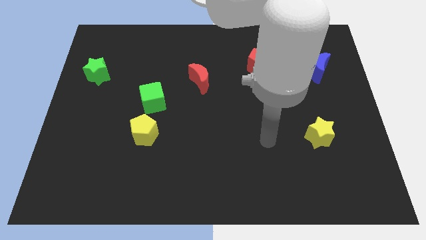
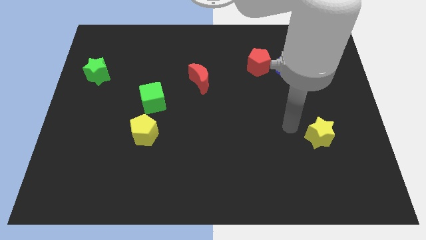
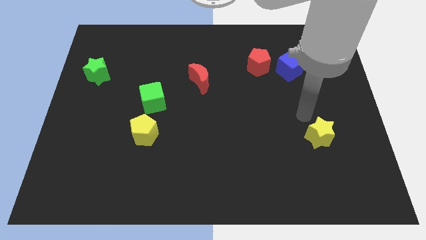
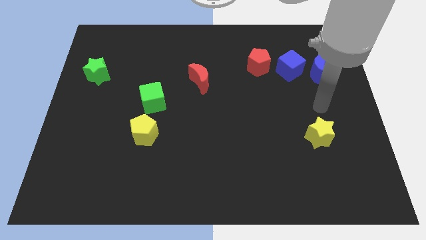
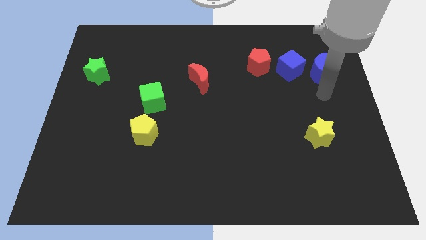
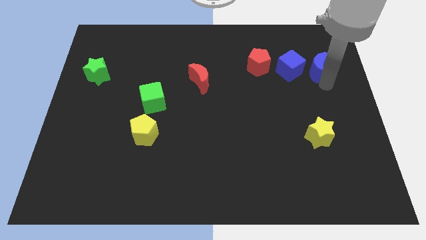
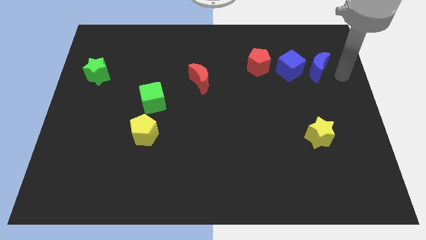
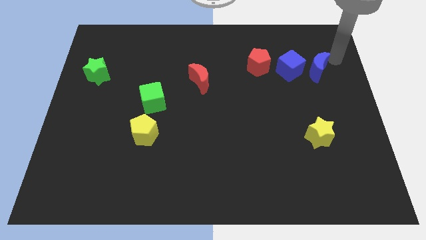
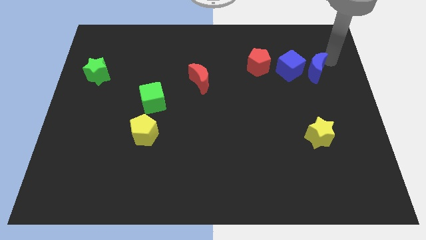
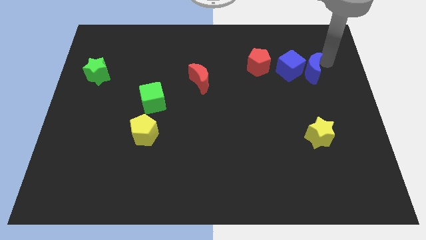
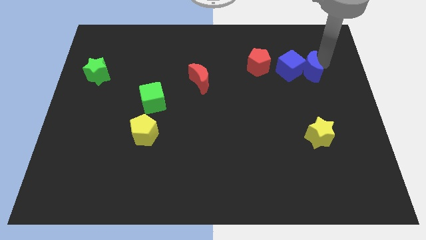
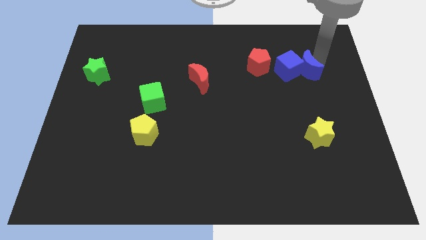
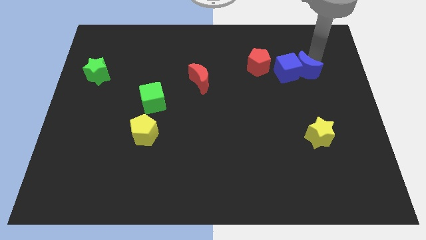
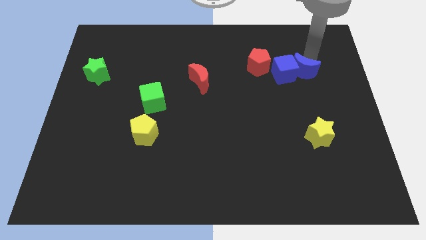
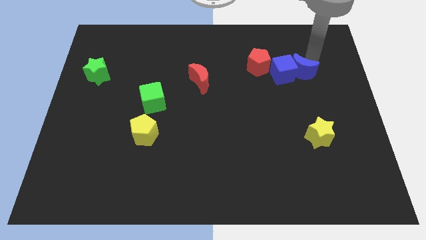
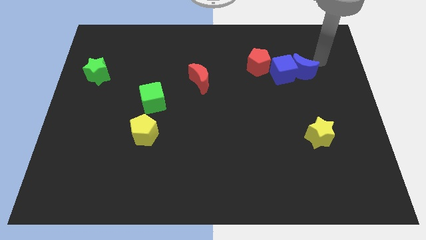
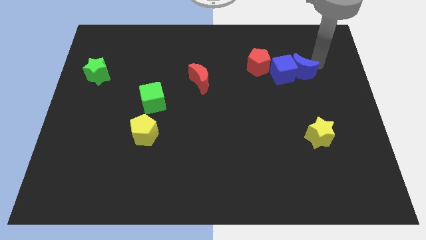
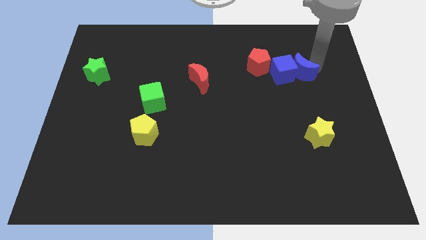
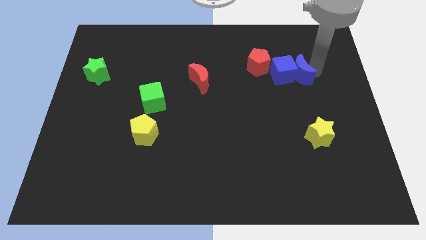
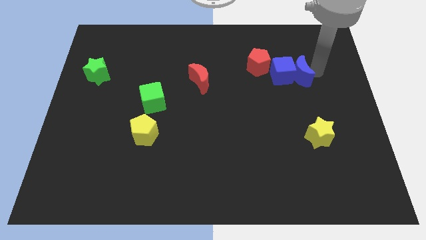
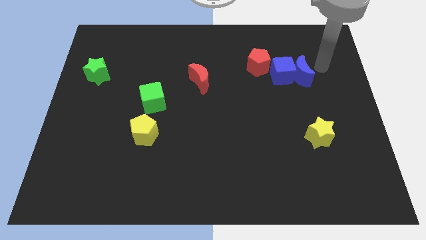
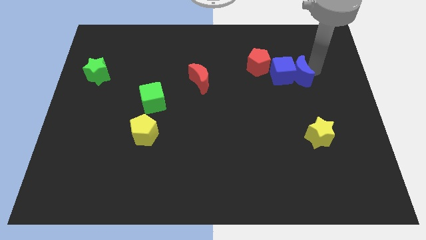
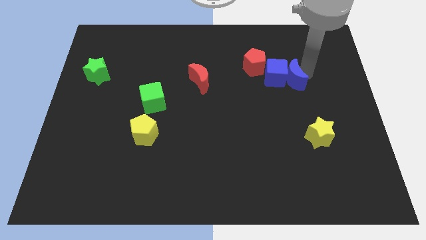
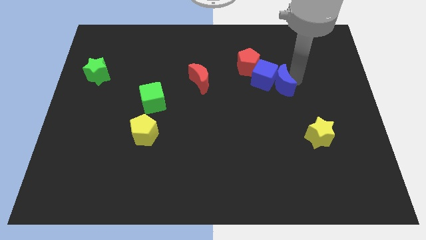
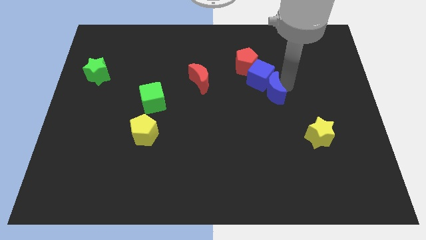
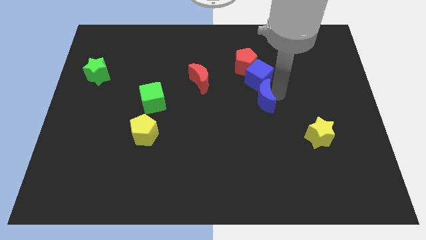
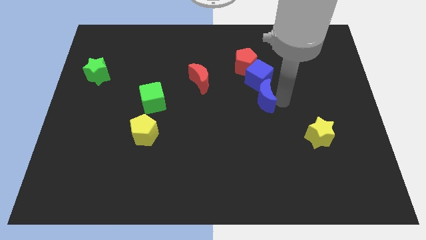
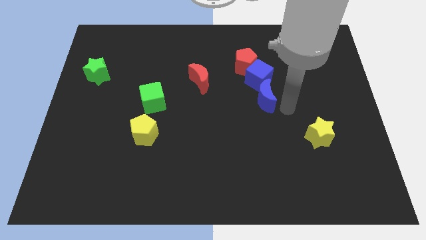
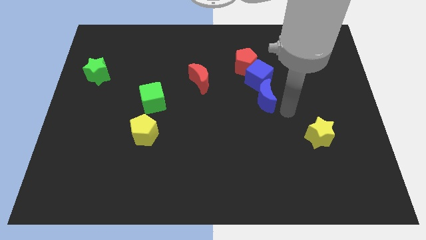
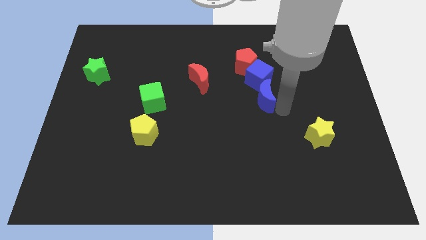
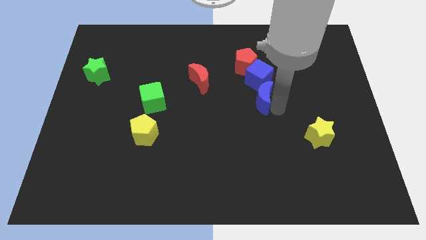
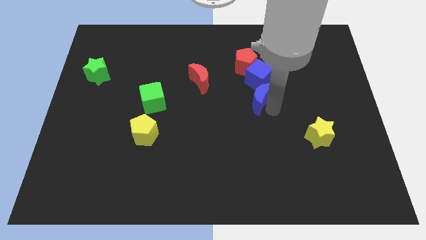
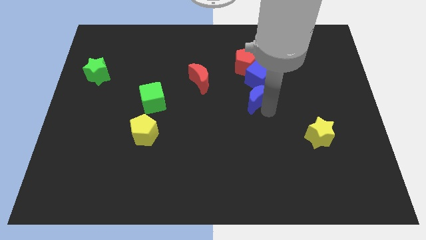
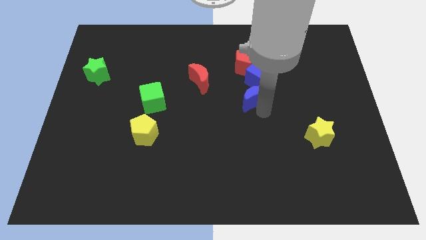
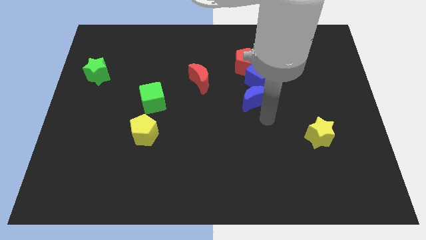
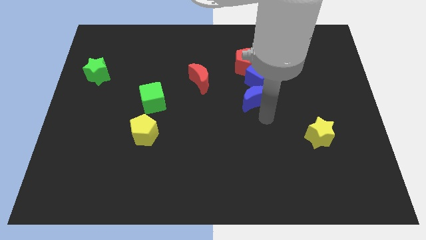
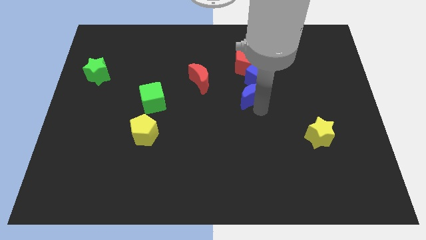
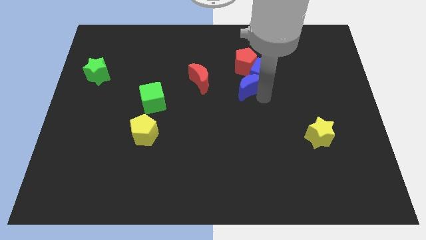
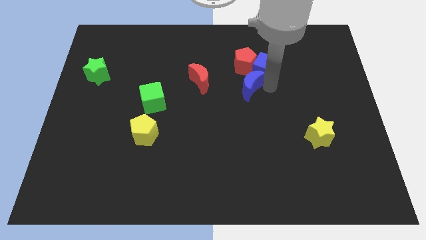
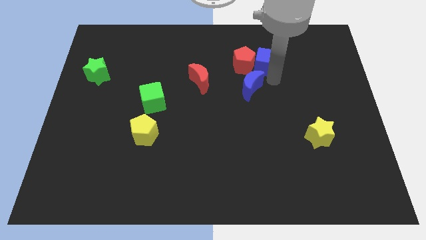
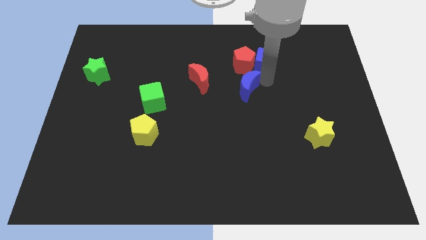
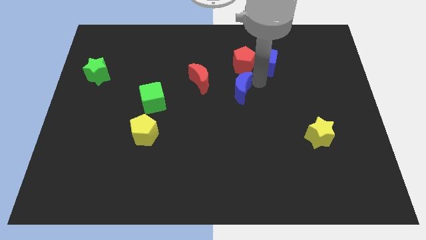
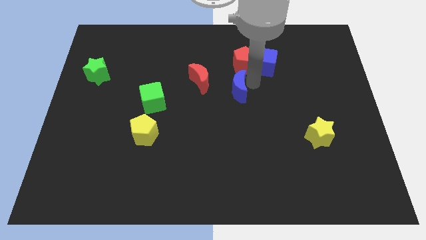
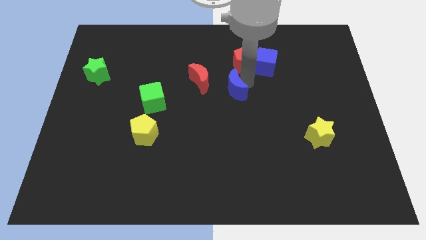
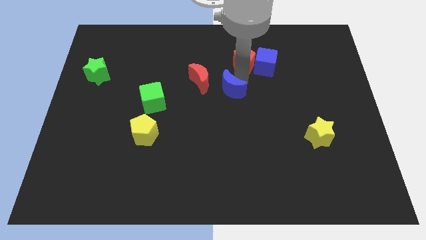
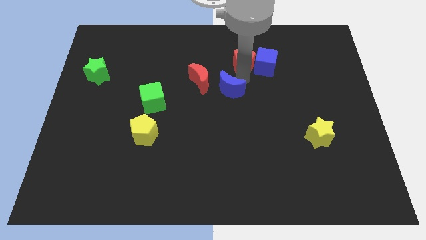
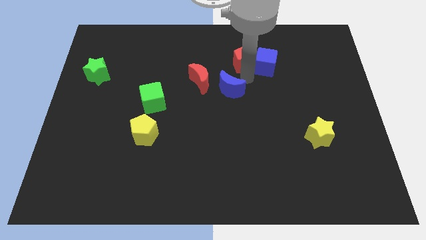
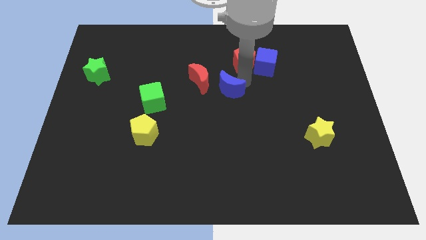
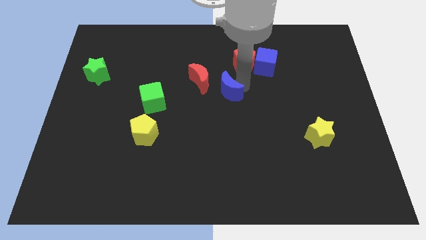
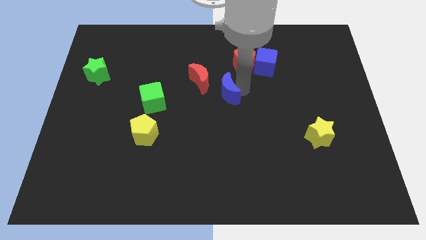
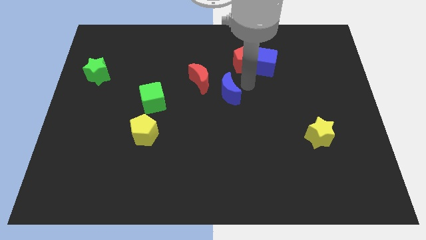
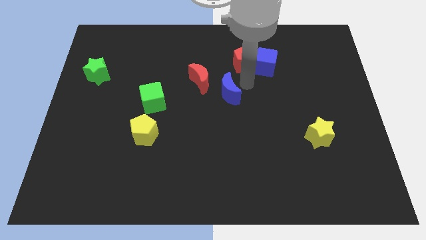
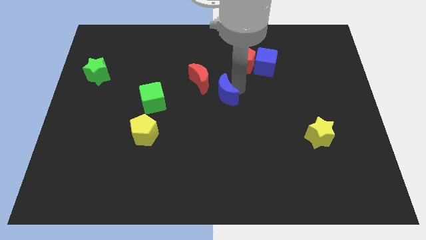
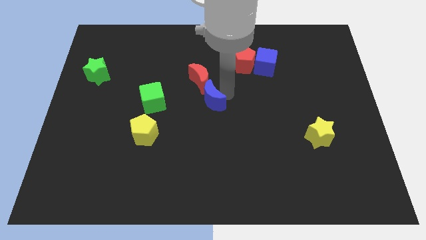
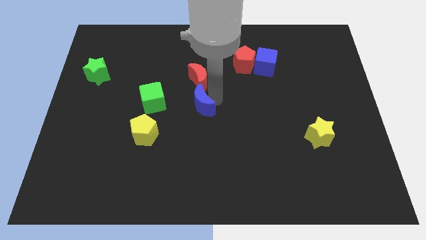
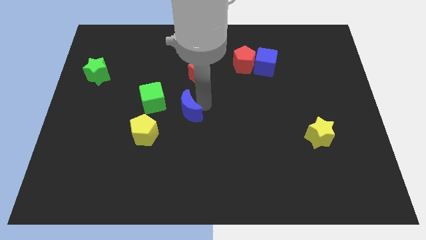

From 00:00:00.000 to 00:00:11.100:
slide the blue moon diagonally down and to the right of the green cube

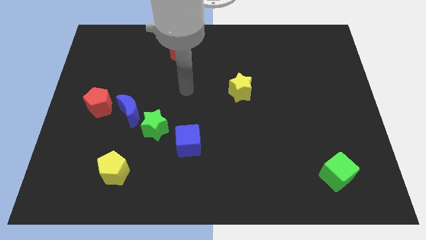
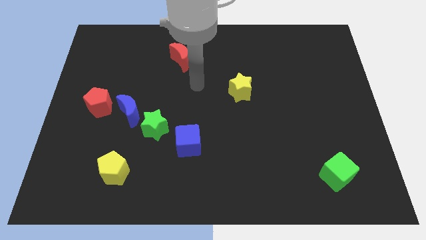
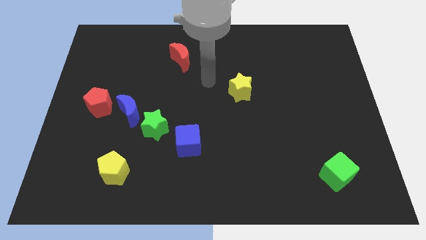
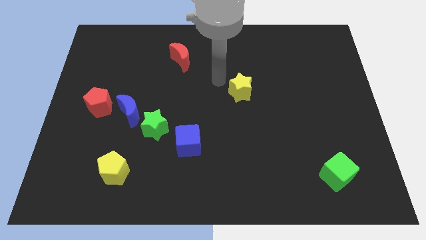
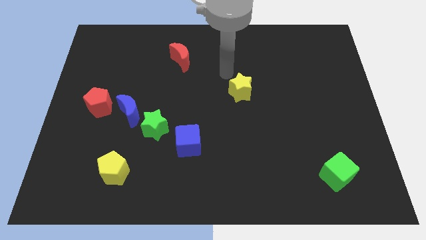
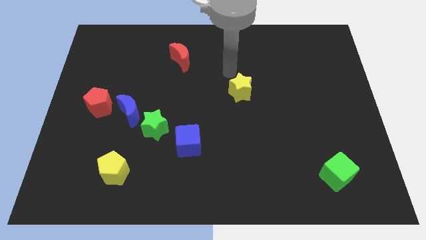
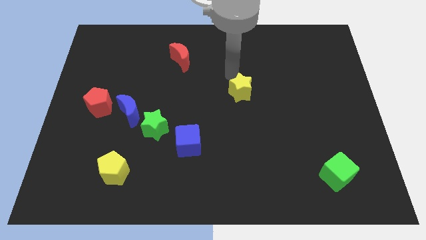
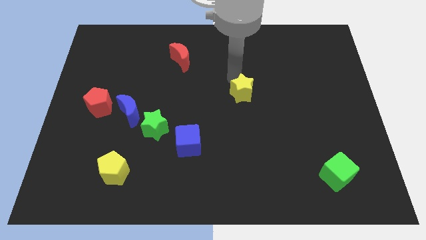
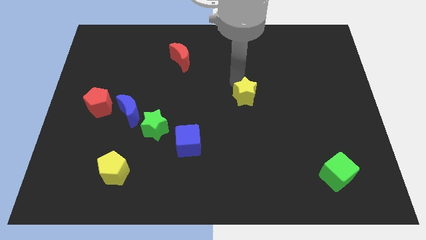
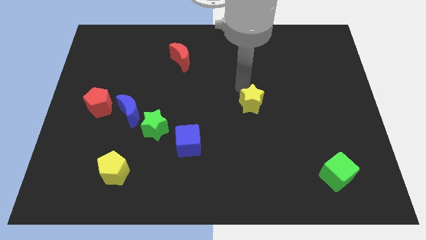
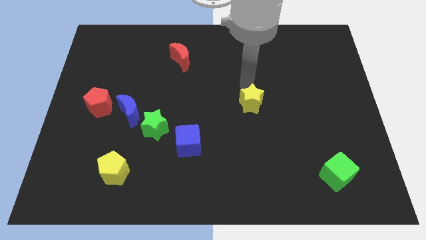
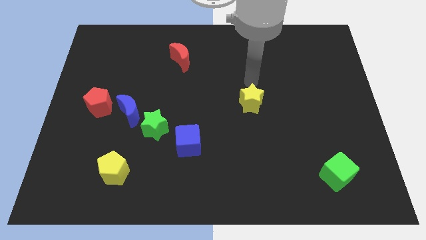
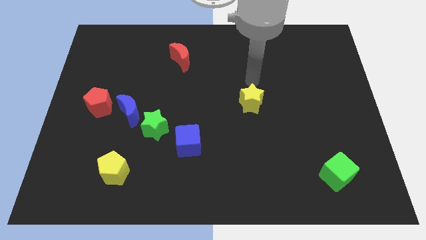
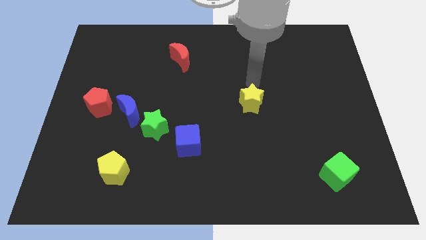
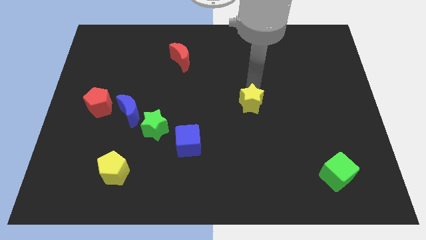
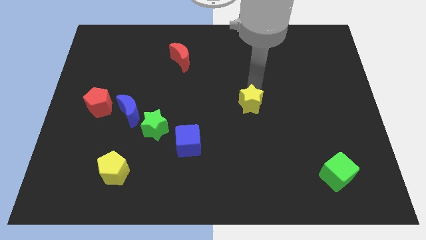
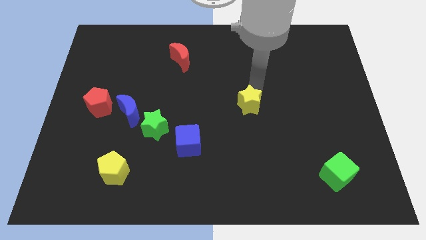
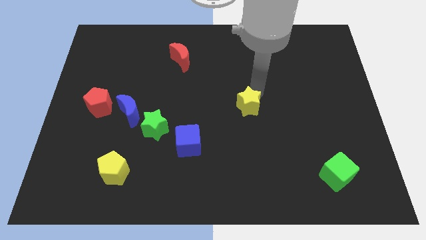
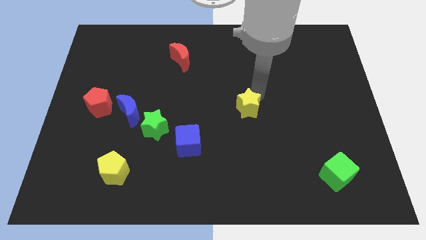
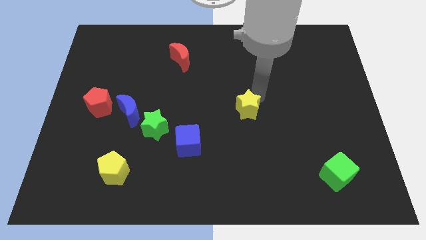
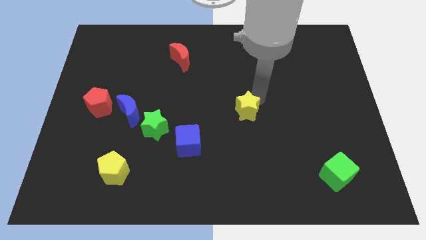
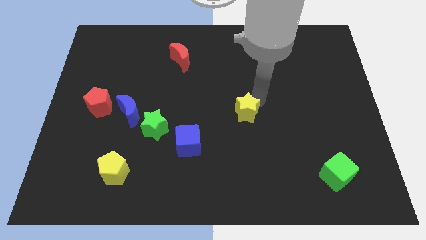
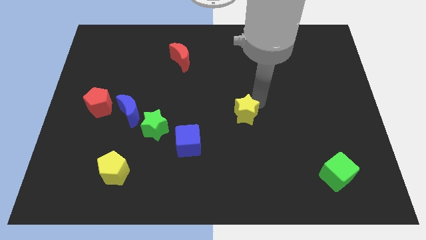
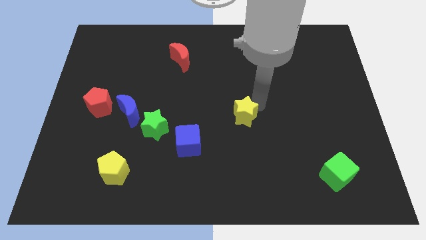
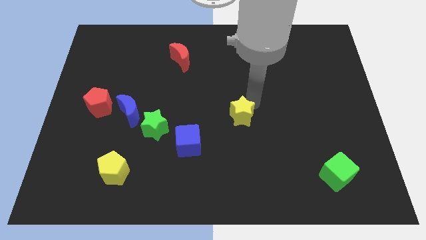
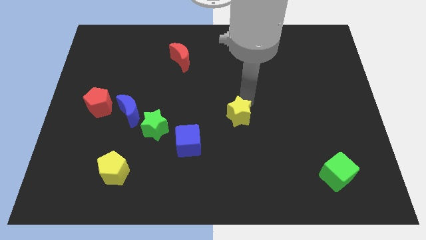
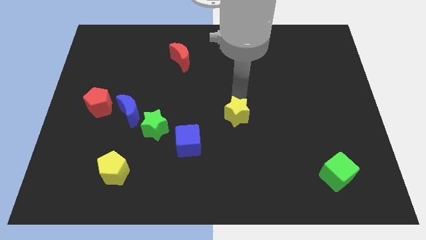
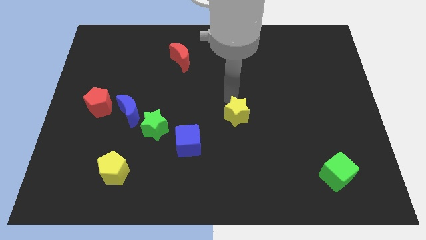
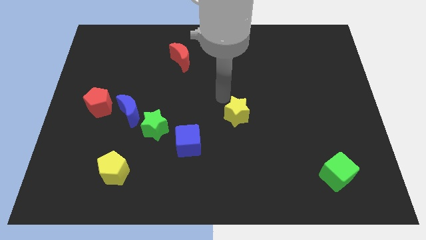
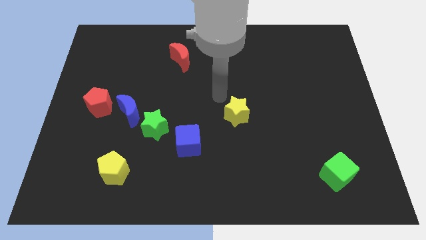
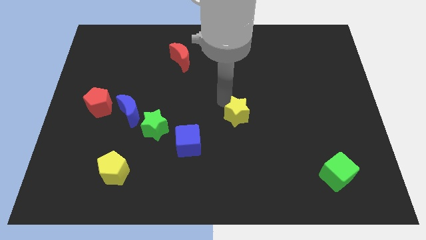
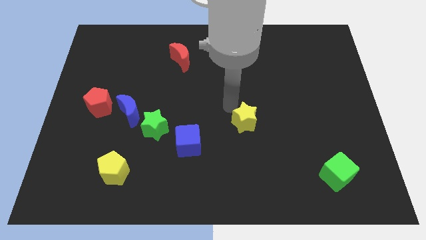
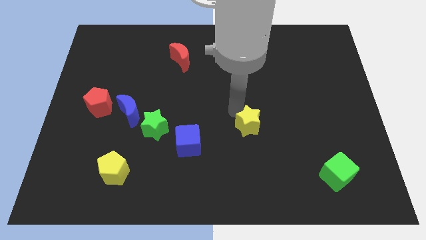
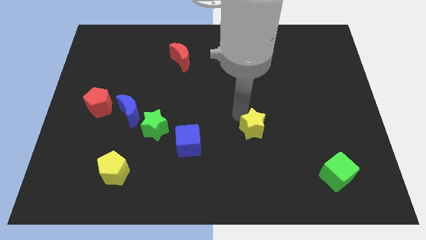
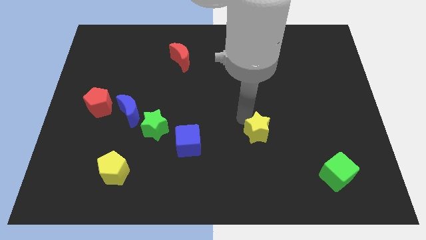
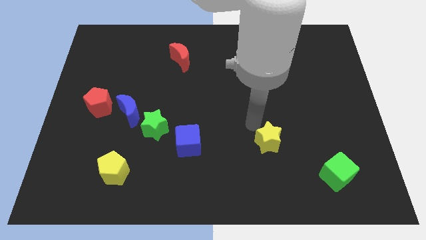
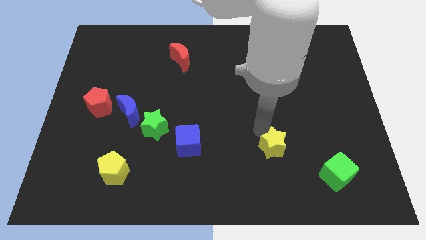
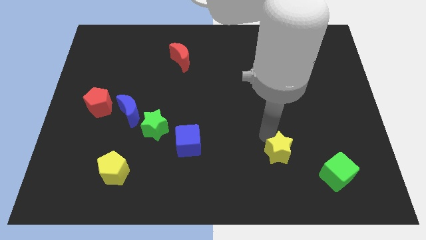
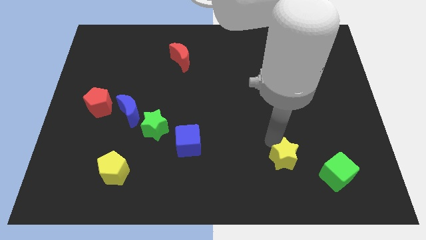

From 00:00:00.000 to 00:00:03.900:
move the yellow star just left of the green cube
